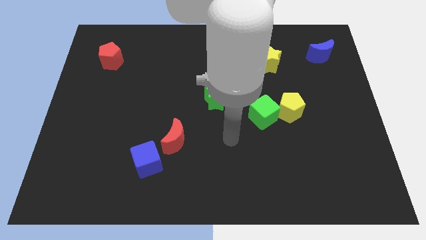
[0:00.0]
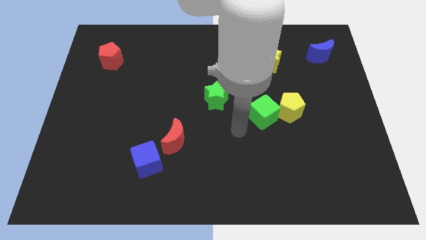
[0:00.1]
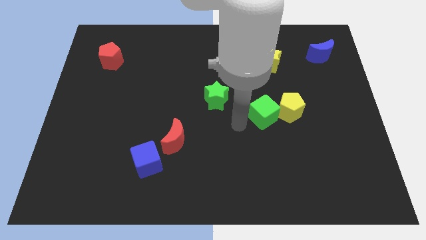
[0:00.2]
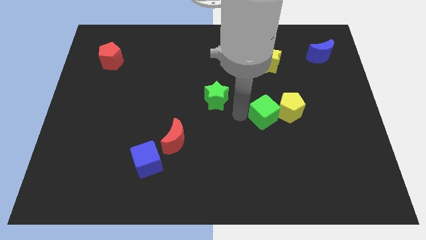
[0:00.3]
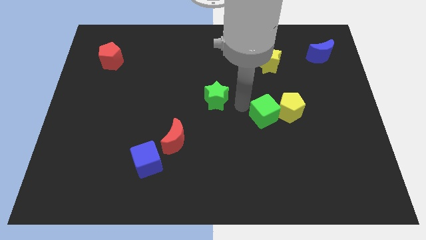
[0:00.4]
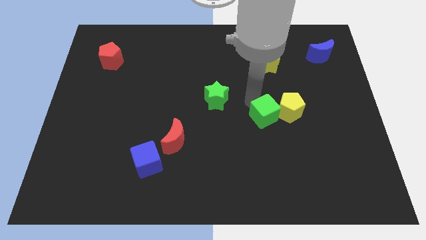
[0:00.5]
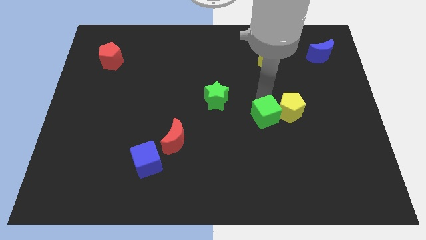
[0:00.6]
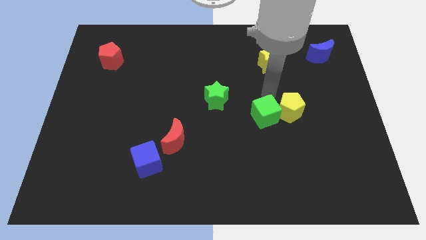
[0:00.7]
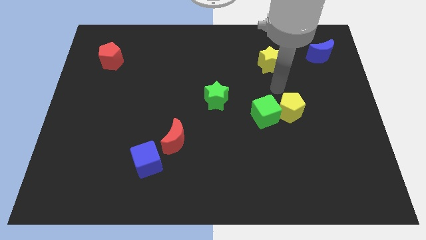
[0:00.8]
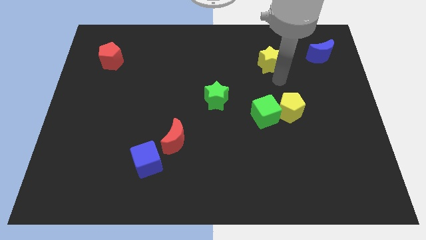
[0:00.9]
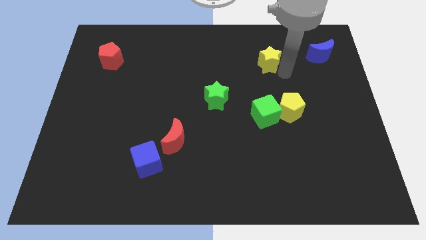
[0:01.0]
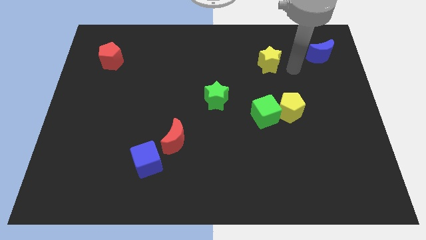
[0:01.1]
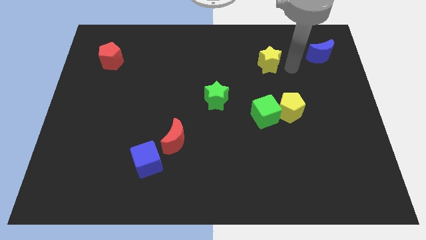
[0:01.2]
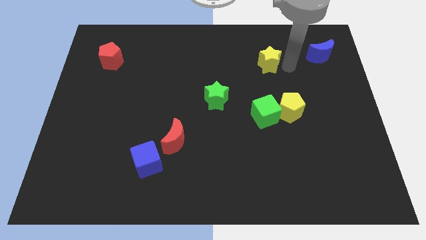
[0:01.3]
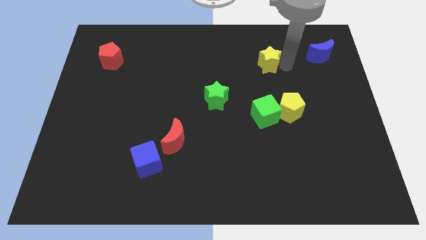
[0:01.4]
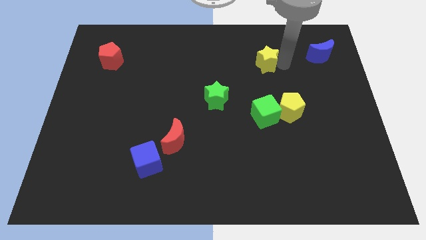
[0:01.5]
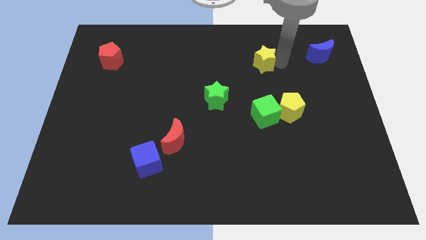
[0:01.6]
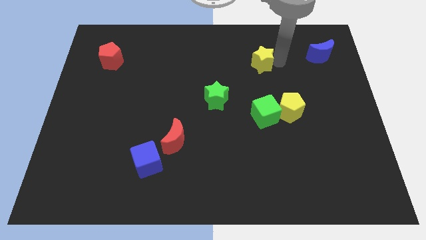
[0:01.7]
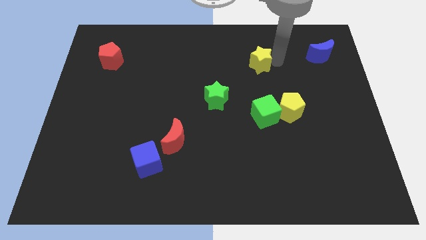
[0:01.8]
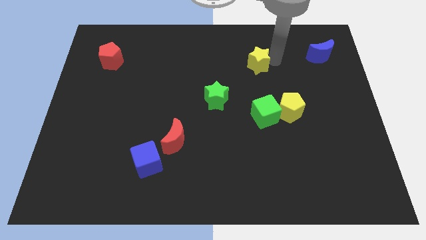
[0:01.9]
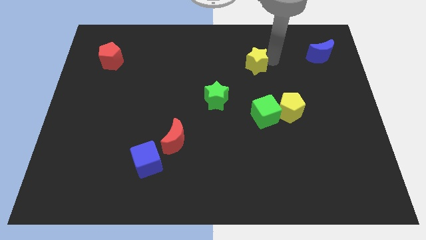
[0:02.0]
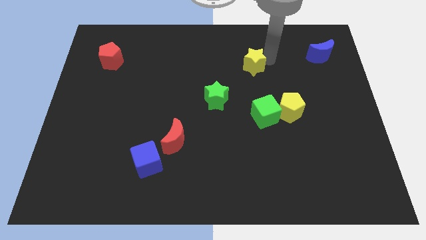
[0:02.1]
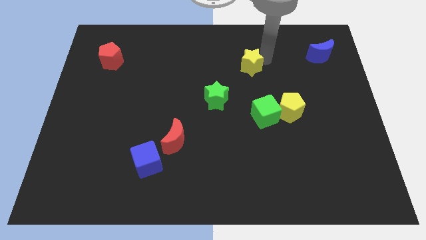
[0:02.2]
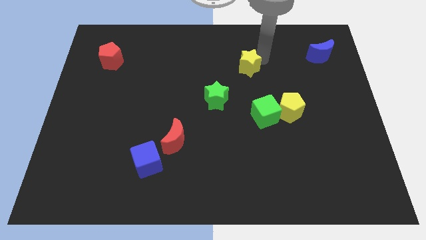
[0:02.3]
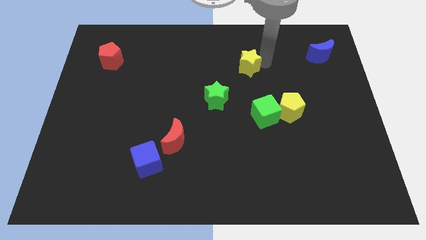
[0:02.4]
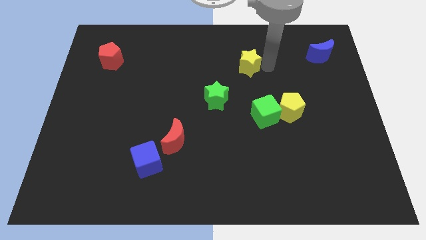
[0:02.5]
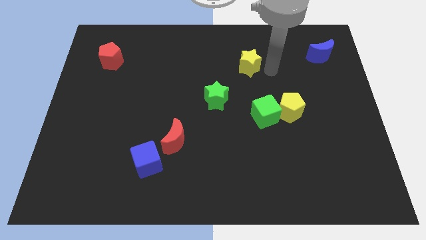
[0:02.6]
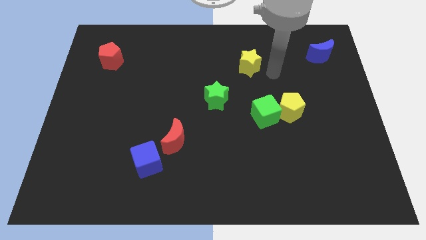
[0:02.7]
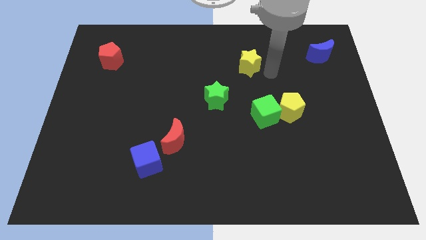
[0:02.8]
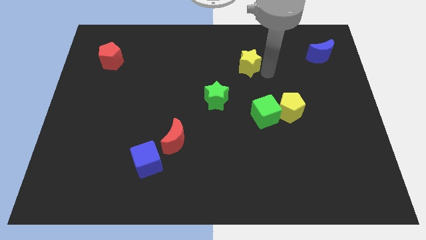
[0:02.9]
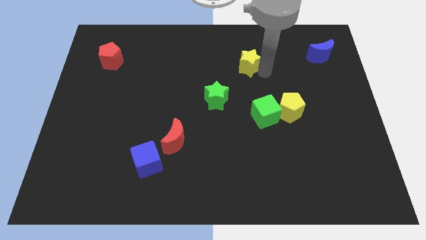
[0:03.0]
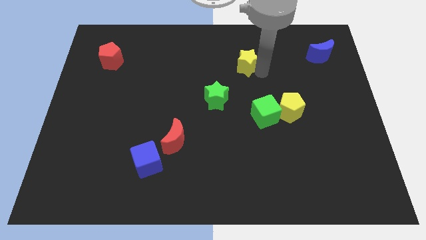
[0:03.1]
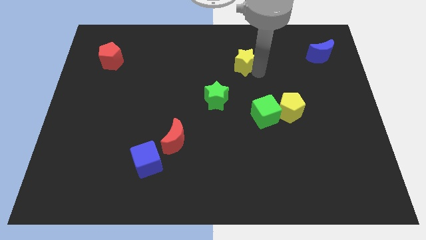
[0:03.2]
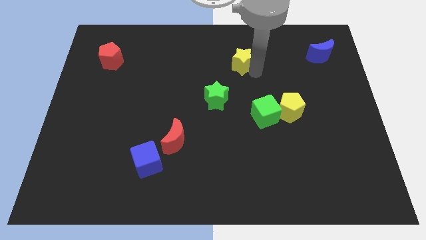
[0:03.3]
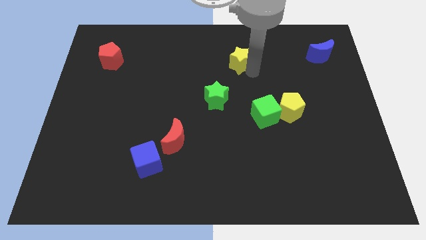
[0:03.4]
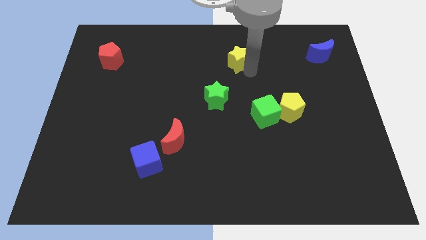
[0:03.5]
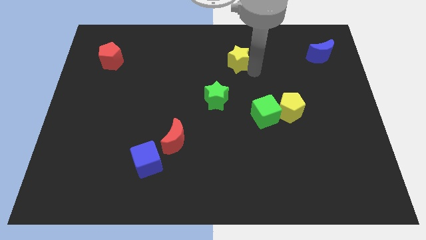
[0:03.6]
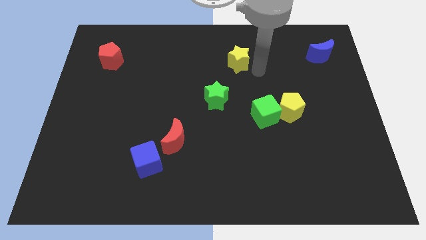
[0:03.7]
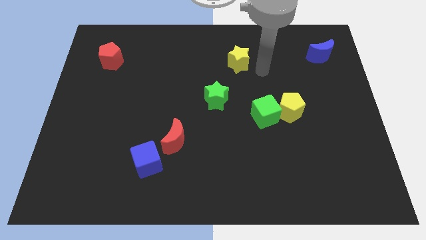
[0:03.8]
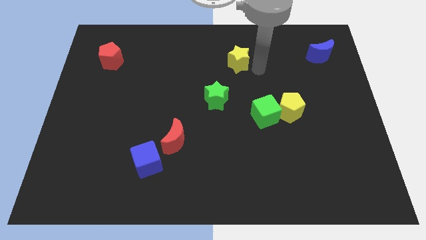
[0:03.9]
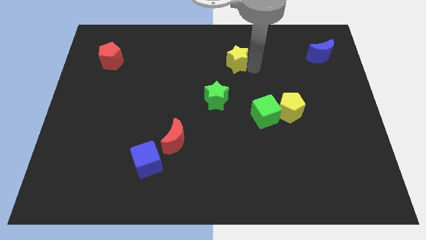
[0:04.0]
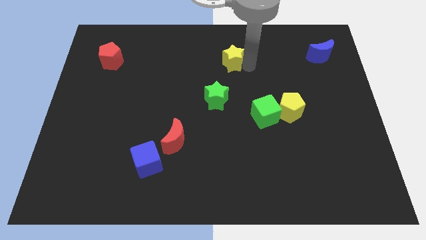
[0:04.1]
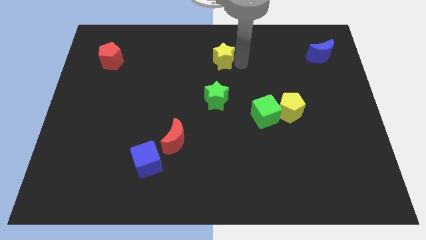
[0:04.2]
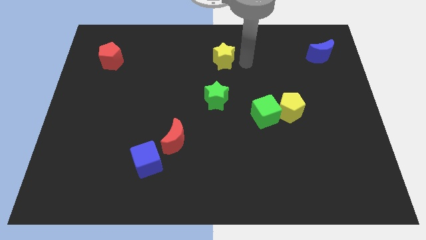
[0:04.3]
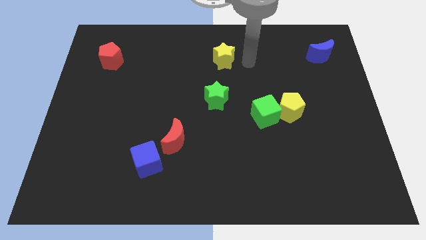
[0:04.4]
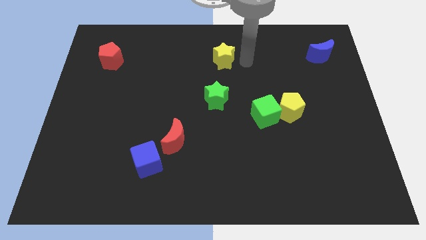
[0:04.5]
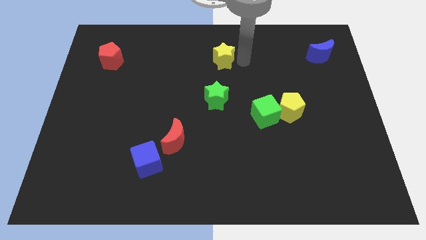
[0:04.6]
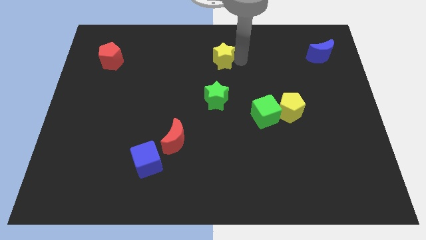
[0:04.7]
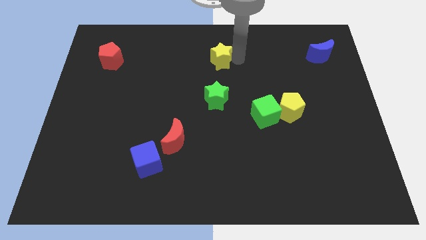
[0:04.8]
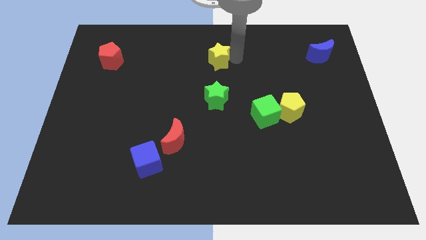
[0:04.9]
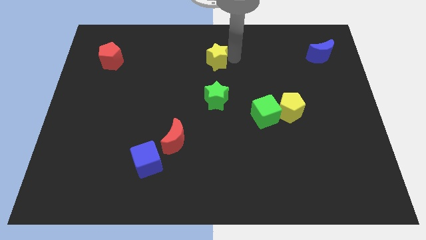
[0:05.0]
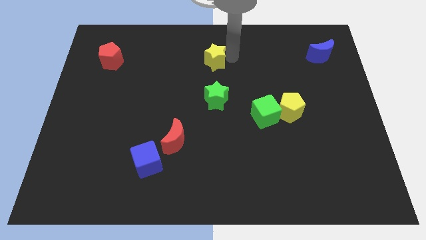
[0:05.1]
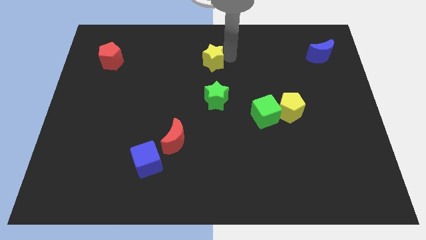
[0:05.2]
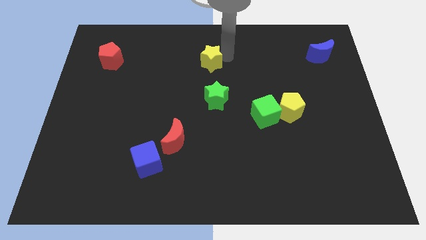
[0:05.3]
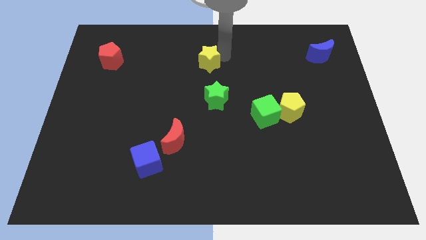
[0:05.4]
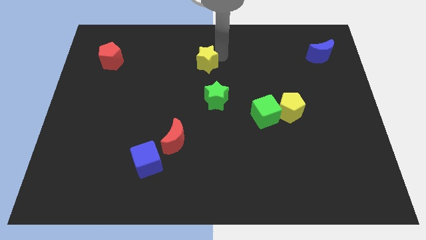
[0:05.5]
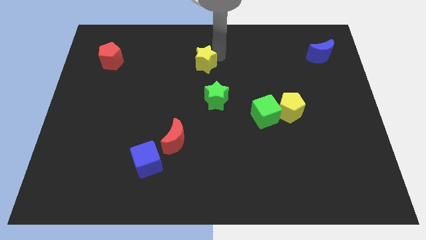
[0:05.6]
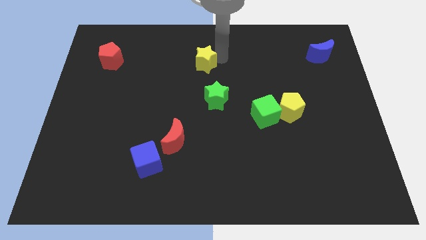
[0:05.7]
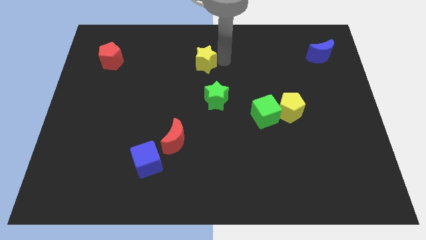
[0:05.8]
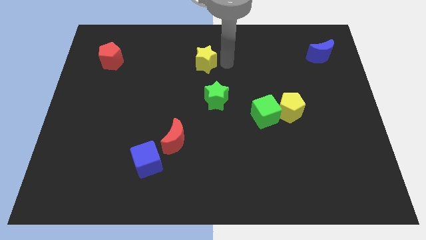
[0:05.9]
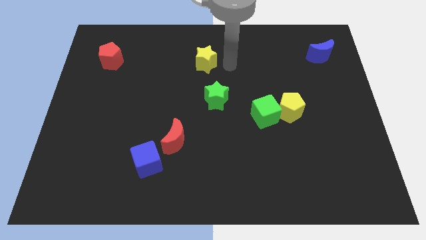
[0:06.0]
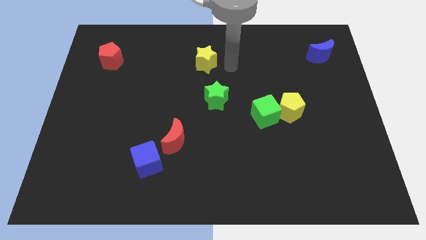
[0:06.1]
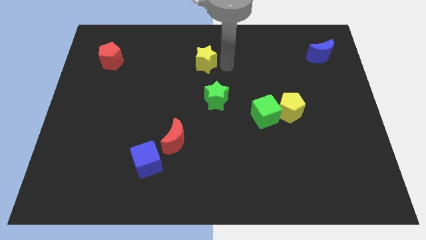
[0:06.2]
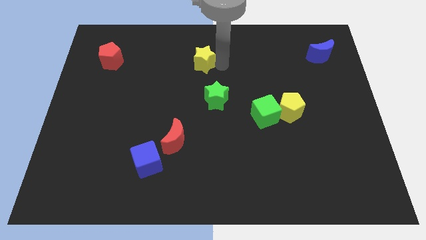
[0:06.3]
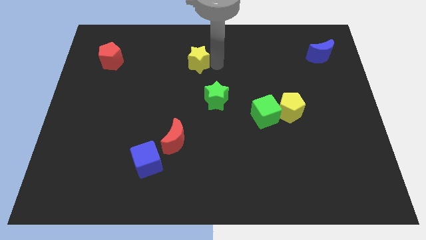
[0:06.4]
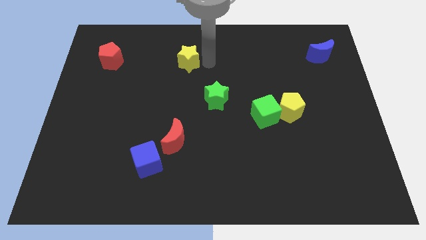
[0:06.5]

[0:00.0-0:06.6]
slide the yellow star to the left

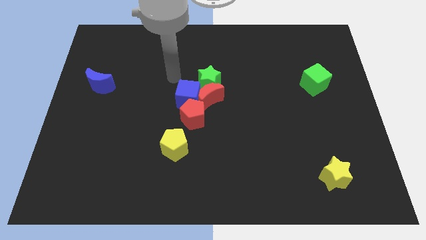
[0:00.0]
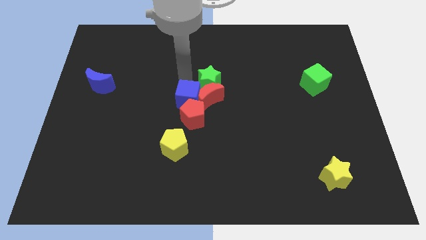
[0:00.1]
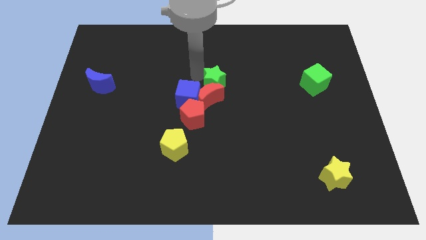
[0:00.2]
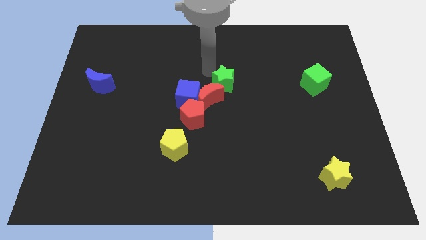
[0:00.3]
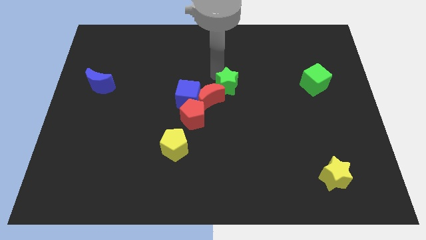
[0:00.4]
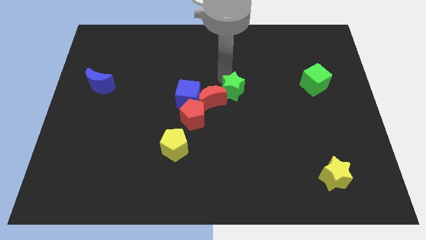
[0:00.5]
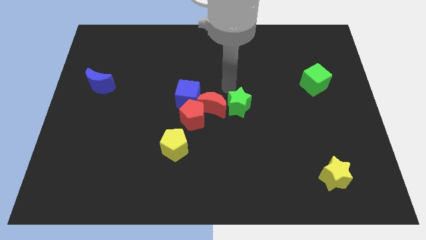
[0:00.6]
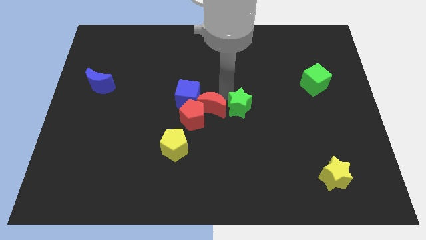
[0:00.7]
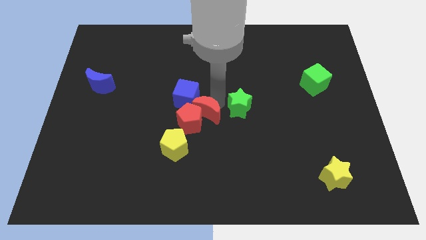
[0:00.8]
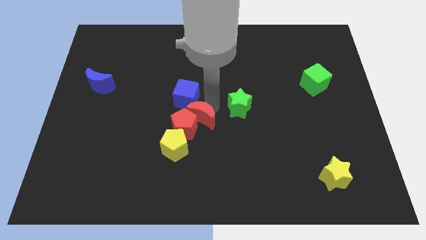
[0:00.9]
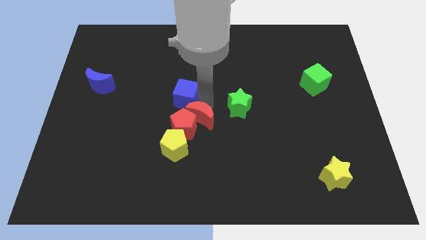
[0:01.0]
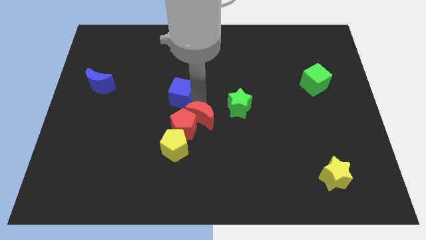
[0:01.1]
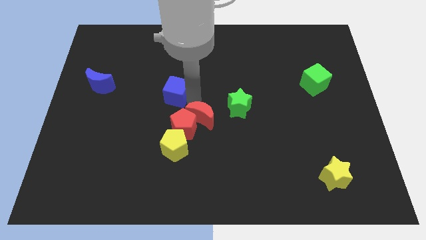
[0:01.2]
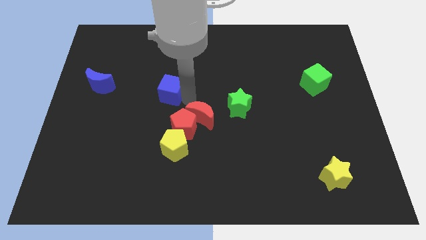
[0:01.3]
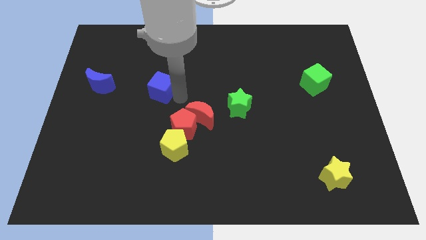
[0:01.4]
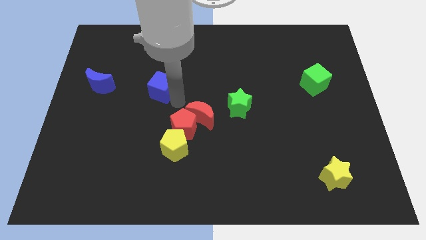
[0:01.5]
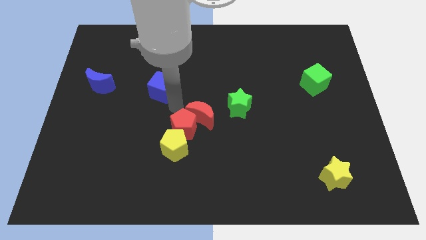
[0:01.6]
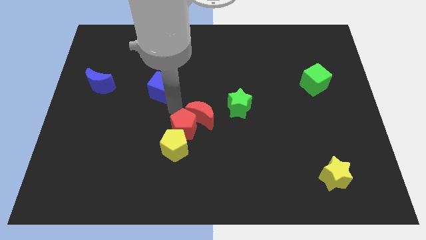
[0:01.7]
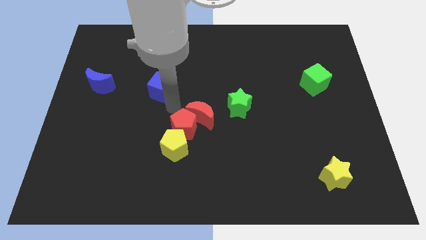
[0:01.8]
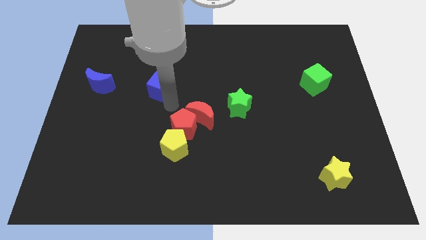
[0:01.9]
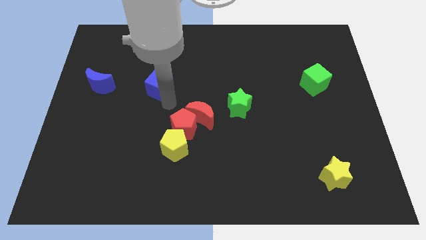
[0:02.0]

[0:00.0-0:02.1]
move the blue cube a bit diagonally up and left
